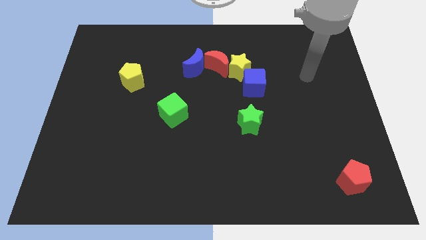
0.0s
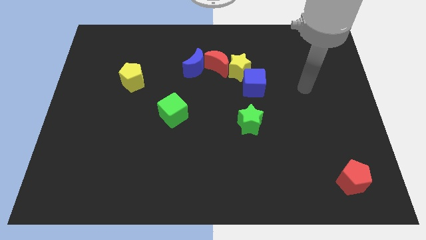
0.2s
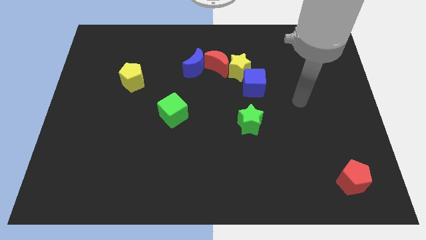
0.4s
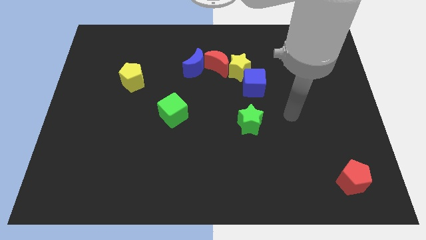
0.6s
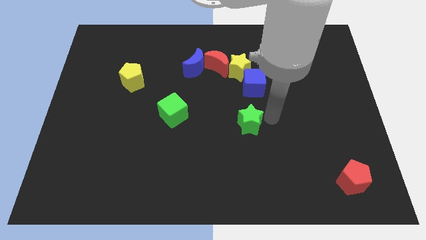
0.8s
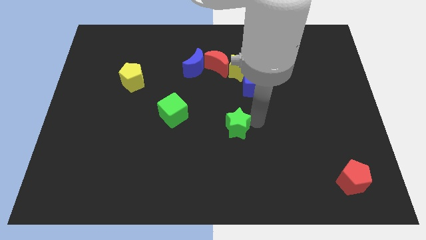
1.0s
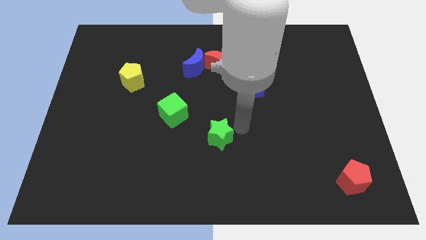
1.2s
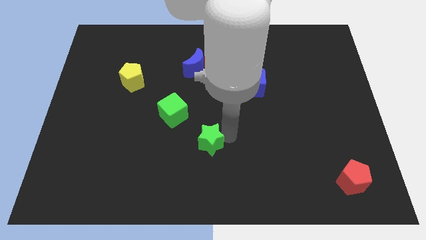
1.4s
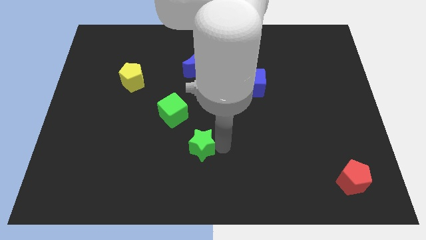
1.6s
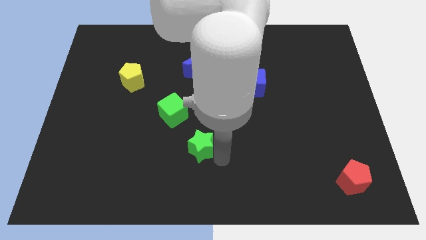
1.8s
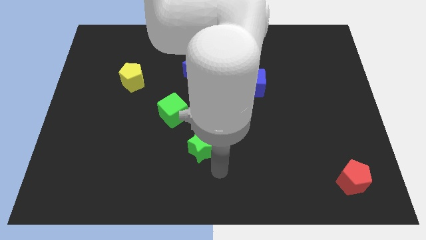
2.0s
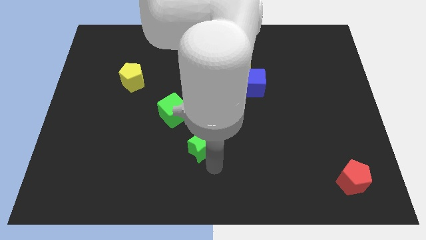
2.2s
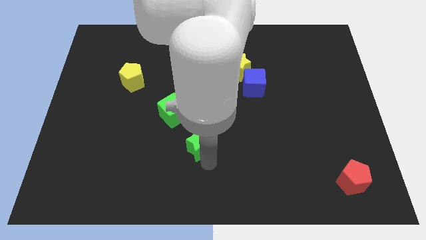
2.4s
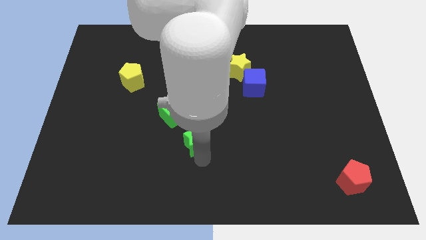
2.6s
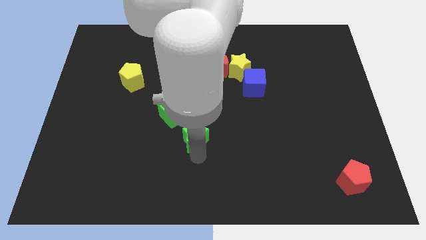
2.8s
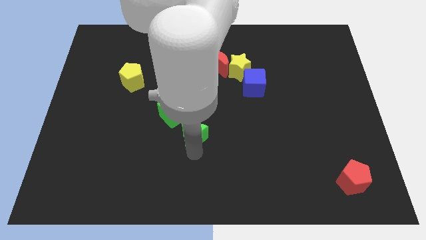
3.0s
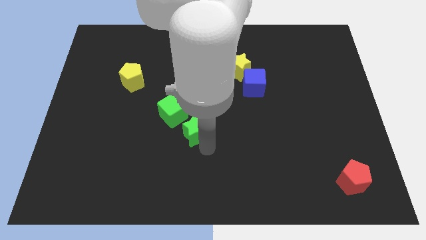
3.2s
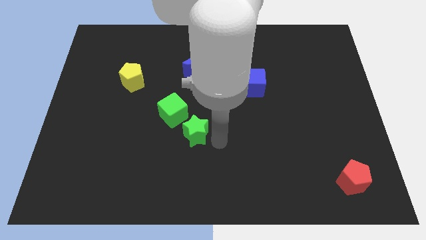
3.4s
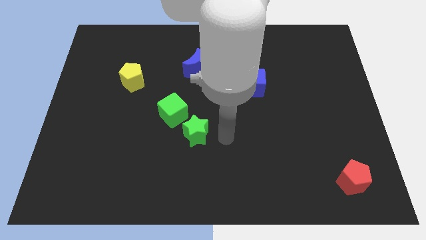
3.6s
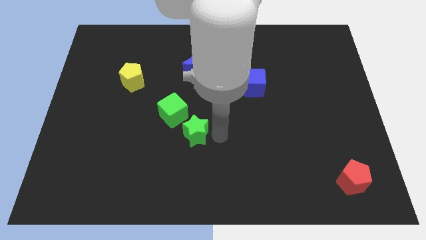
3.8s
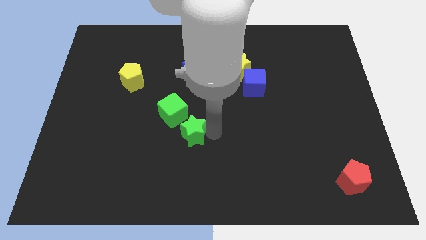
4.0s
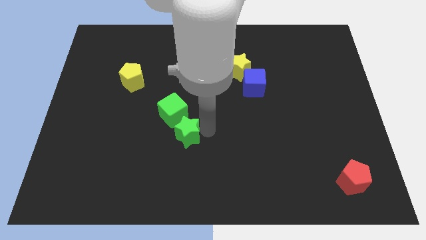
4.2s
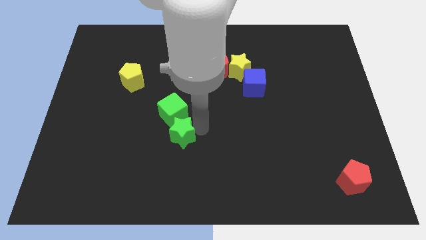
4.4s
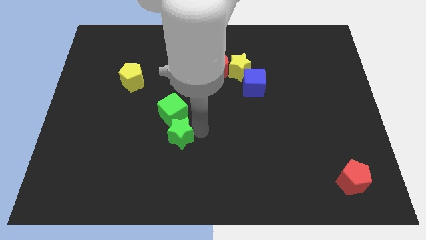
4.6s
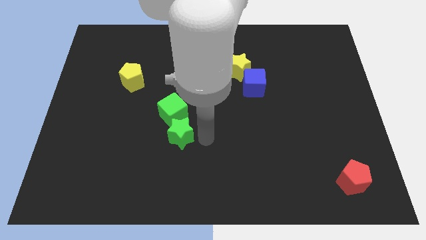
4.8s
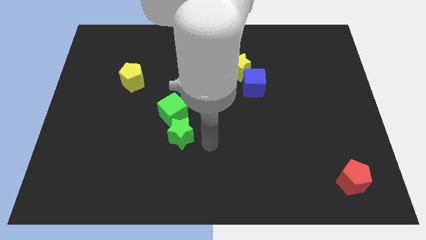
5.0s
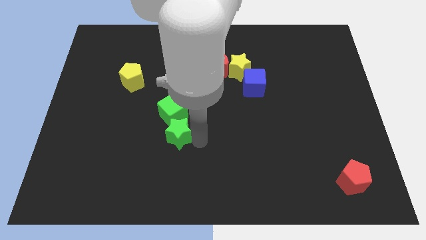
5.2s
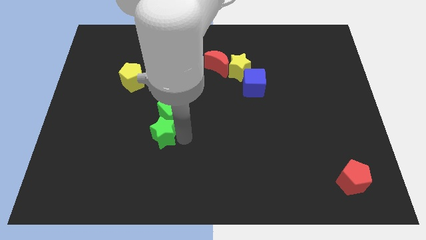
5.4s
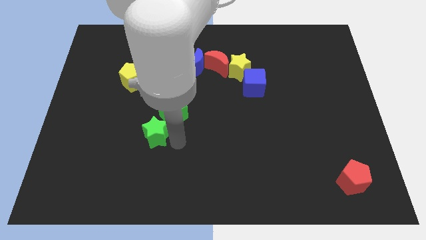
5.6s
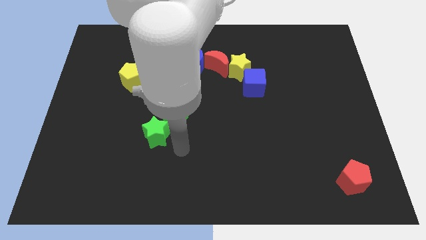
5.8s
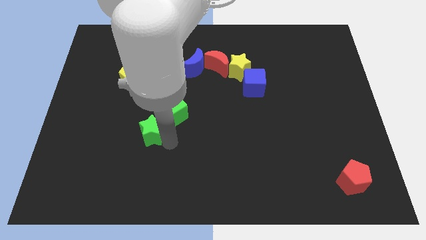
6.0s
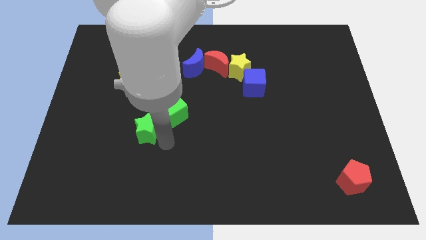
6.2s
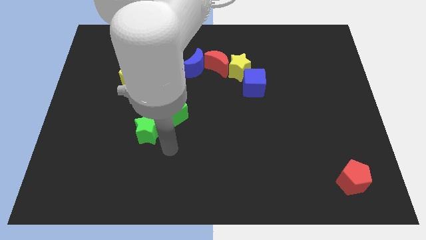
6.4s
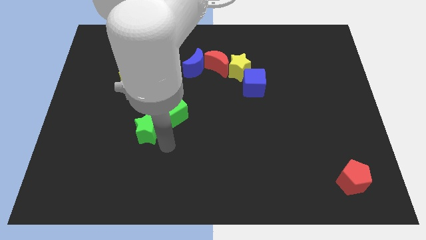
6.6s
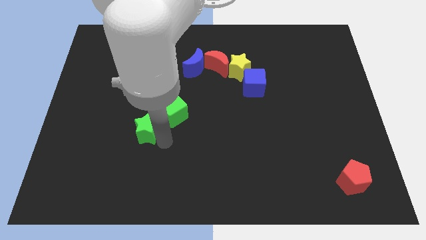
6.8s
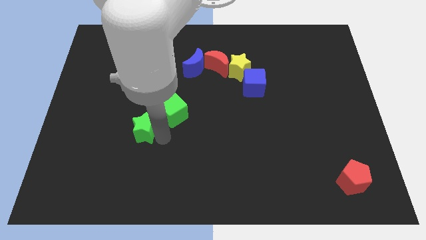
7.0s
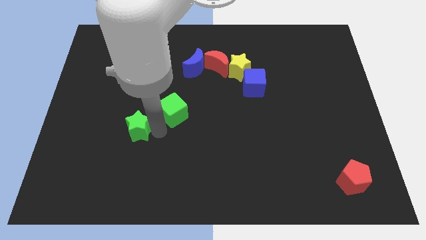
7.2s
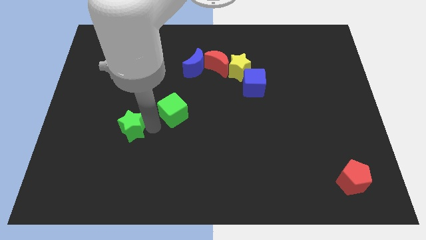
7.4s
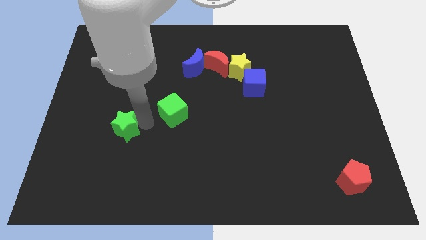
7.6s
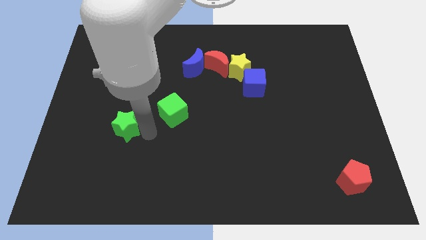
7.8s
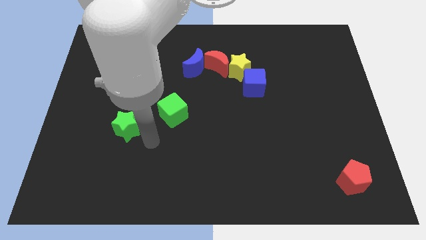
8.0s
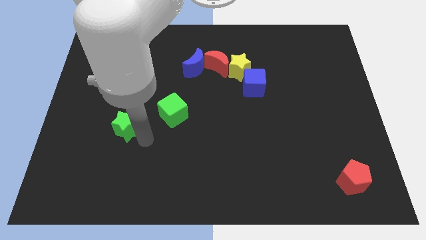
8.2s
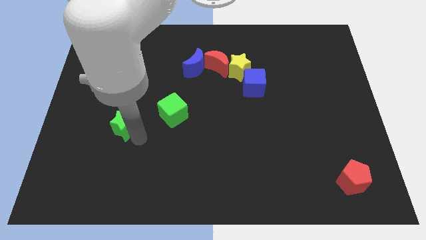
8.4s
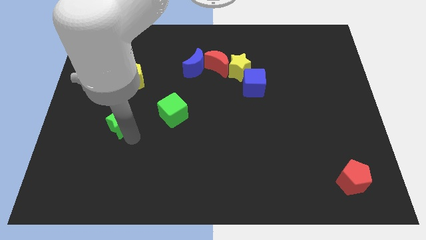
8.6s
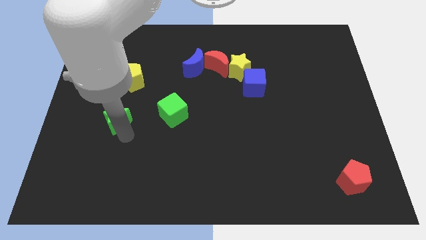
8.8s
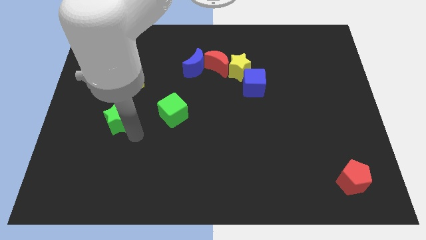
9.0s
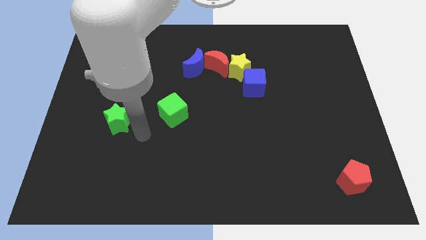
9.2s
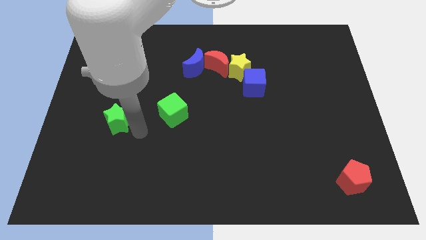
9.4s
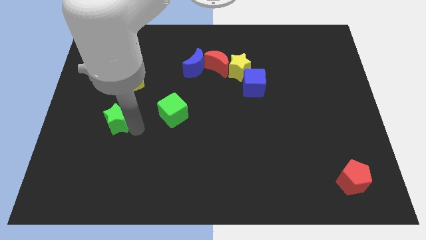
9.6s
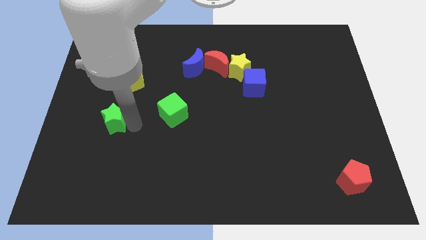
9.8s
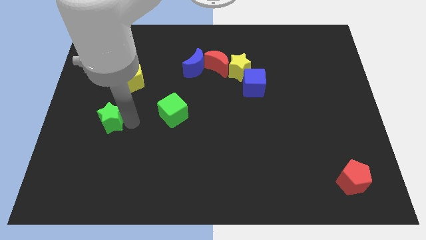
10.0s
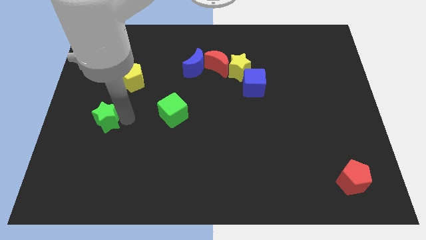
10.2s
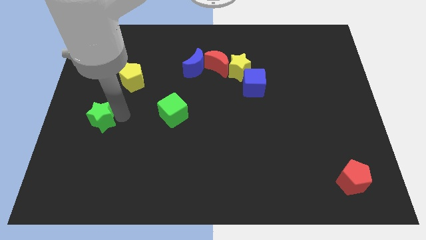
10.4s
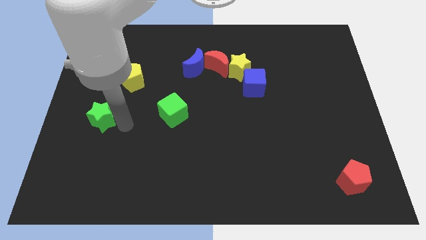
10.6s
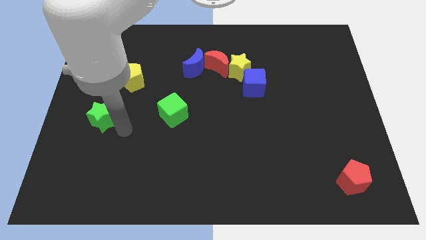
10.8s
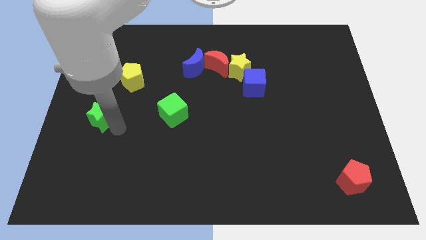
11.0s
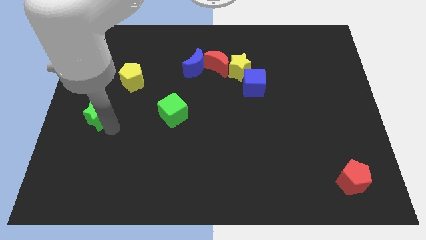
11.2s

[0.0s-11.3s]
move the green star to the left side of the board

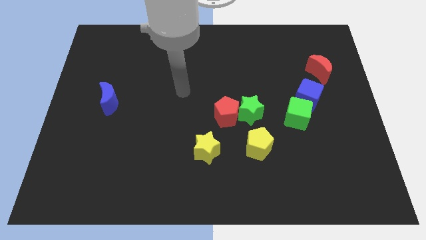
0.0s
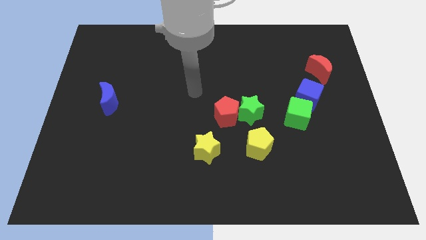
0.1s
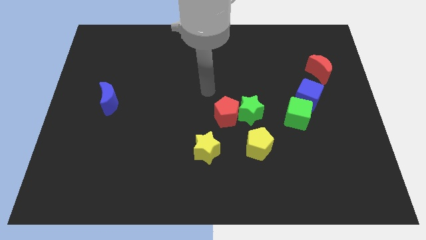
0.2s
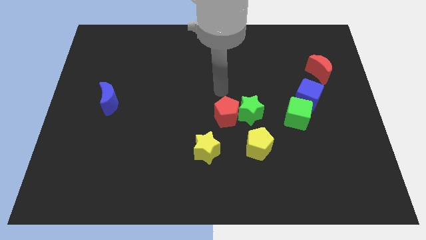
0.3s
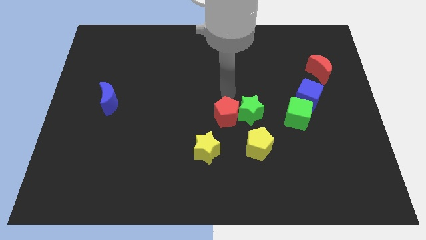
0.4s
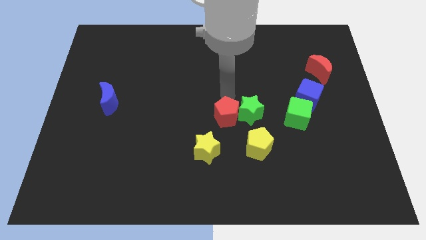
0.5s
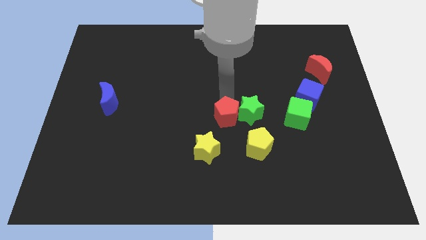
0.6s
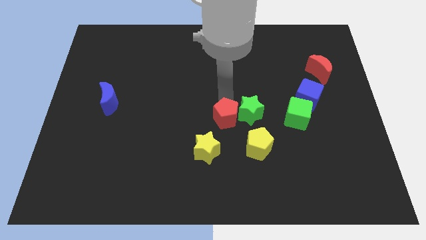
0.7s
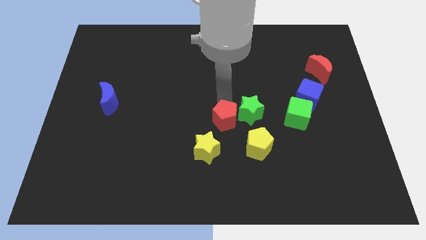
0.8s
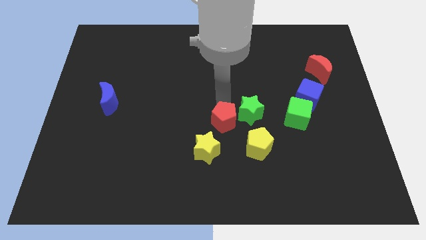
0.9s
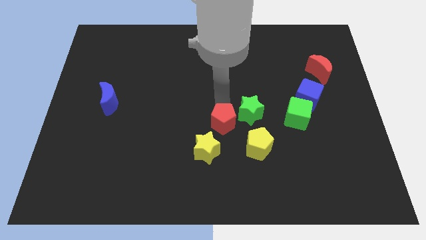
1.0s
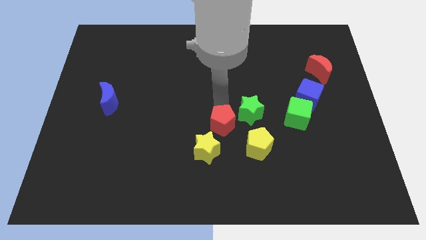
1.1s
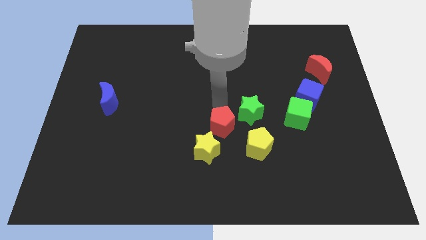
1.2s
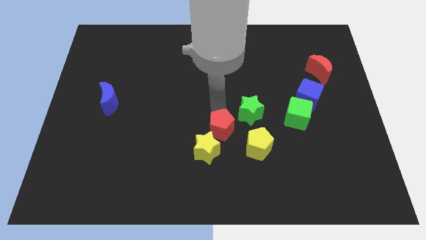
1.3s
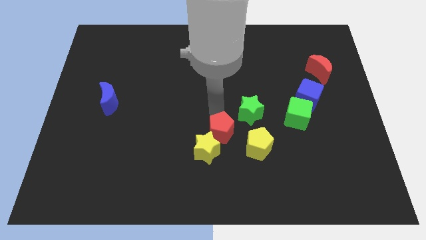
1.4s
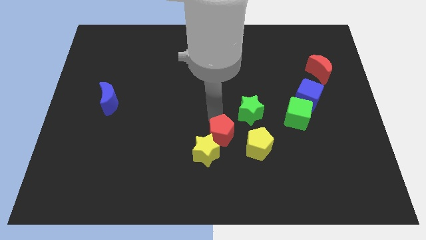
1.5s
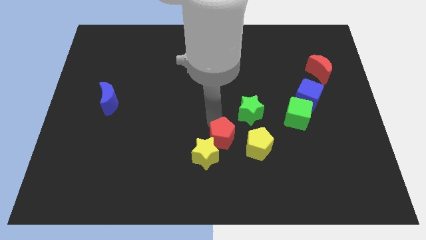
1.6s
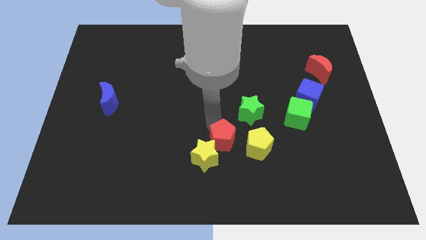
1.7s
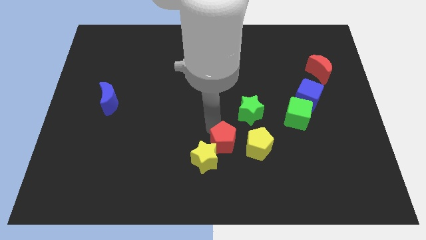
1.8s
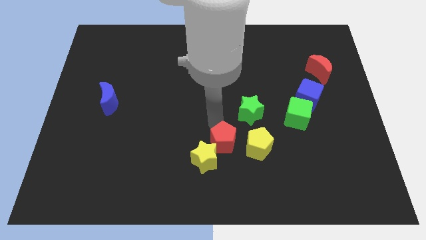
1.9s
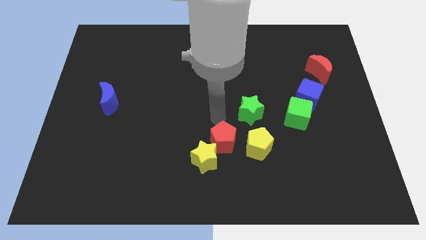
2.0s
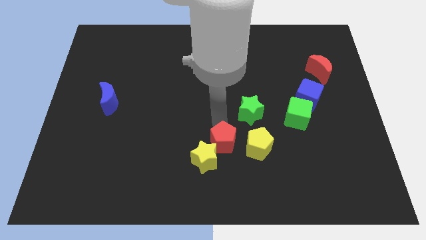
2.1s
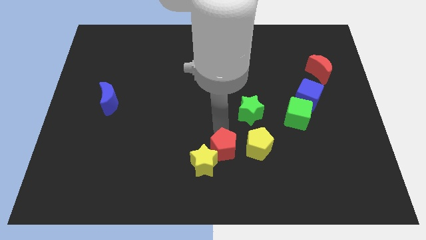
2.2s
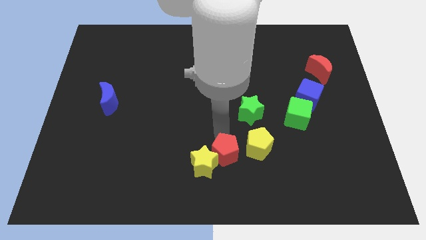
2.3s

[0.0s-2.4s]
push the red pentagon to the bottom side
